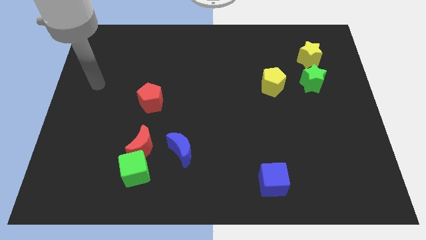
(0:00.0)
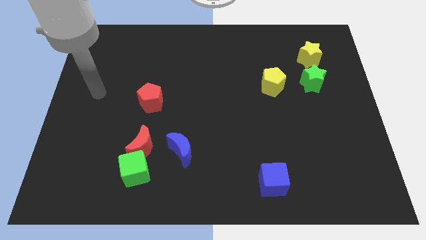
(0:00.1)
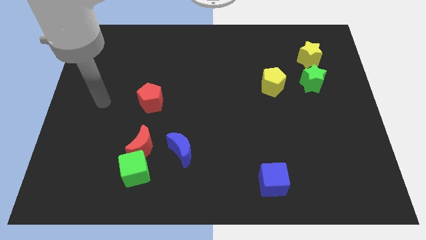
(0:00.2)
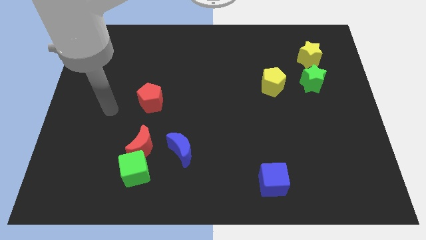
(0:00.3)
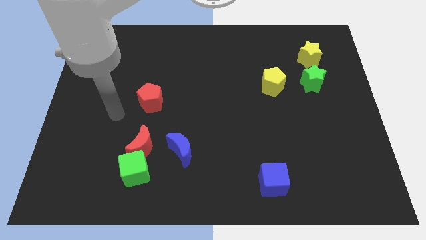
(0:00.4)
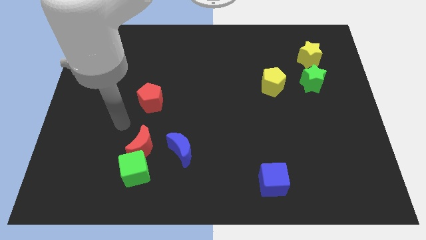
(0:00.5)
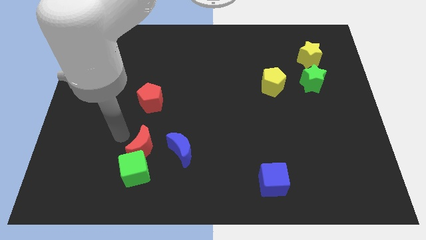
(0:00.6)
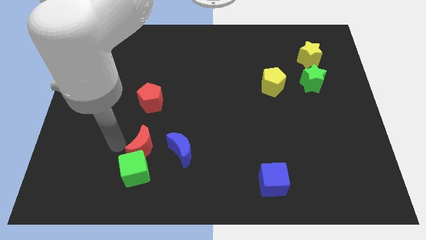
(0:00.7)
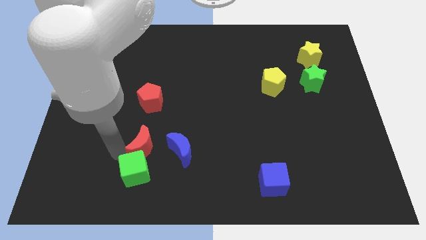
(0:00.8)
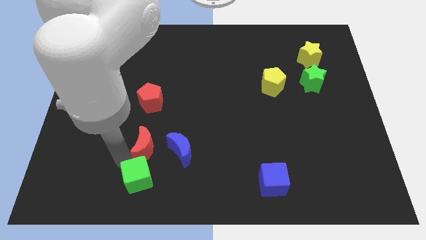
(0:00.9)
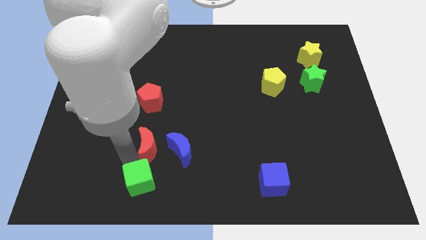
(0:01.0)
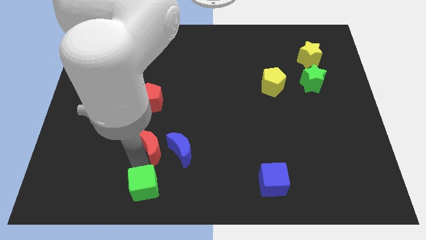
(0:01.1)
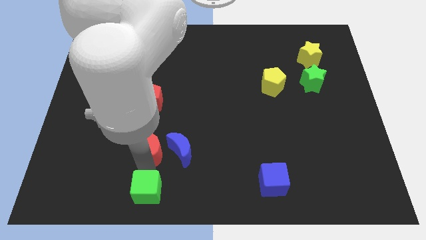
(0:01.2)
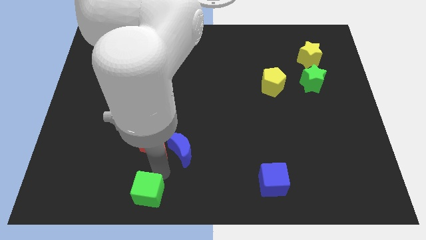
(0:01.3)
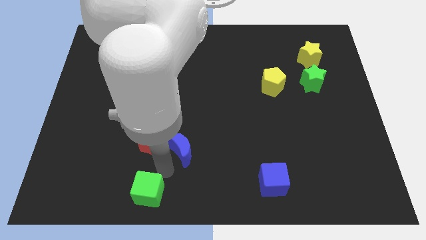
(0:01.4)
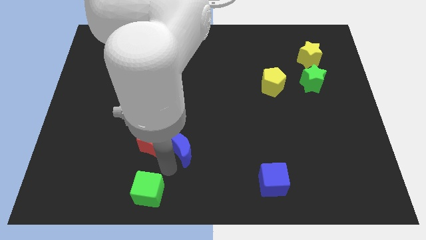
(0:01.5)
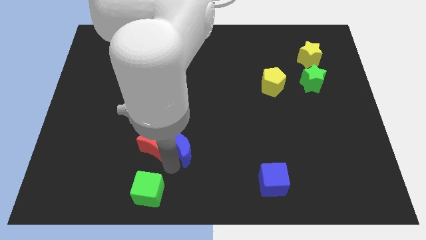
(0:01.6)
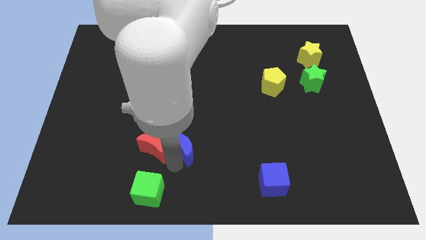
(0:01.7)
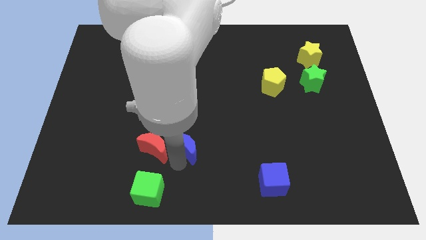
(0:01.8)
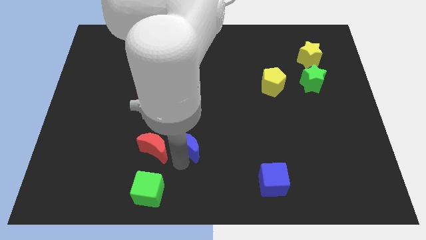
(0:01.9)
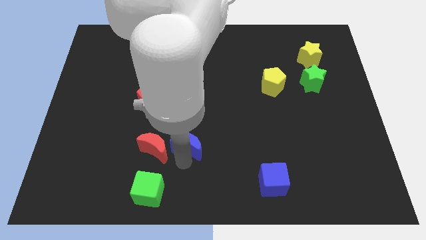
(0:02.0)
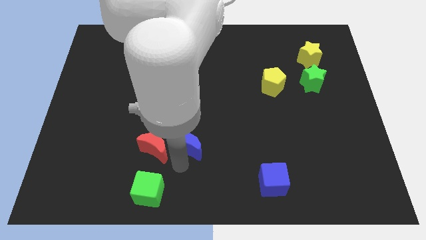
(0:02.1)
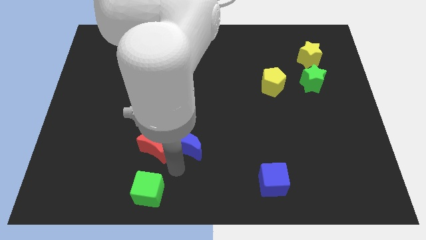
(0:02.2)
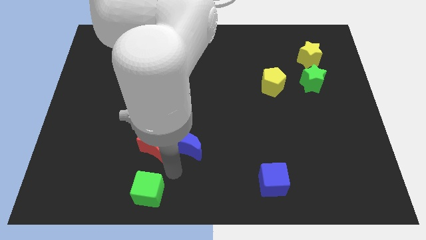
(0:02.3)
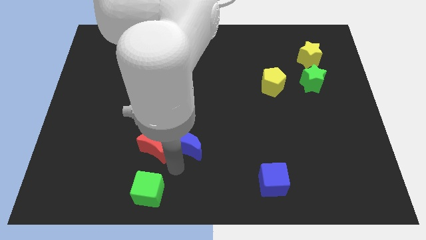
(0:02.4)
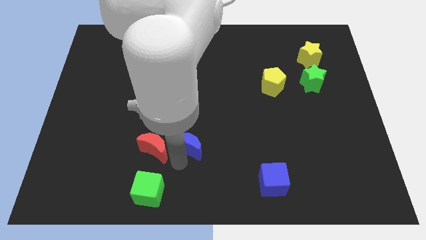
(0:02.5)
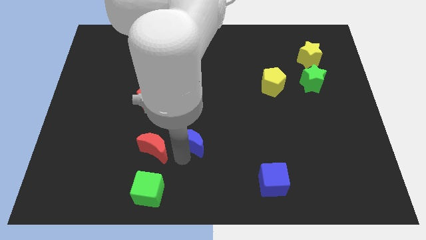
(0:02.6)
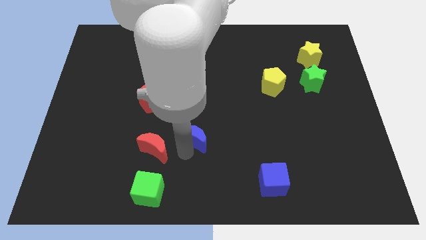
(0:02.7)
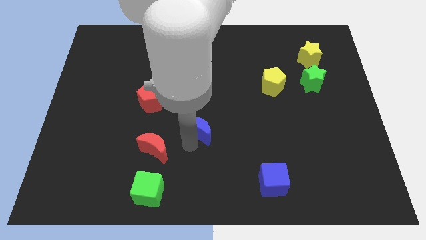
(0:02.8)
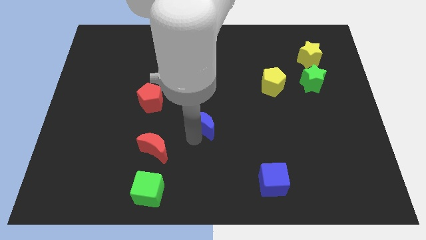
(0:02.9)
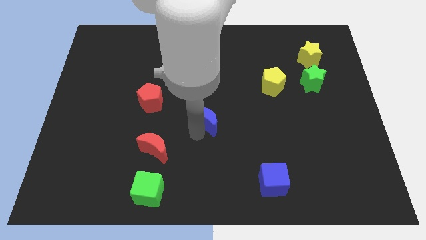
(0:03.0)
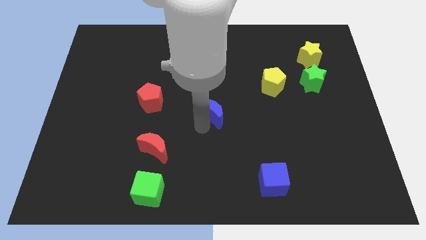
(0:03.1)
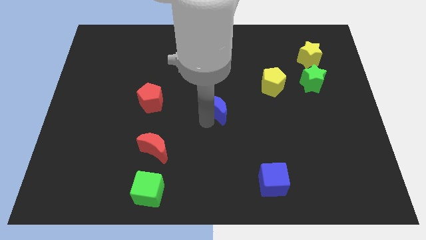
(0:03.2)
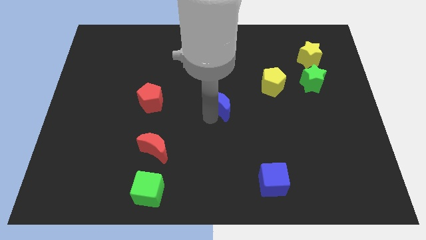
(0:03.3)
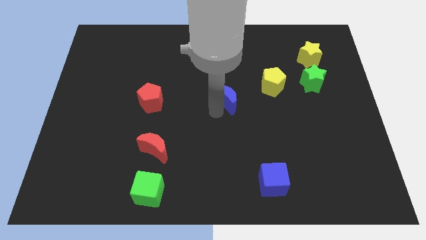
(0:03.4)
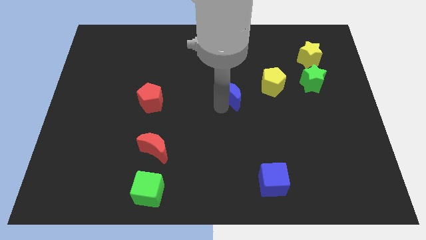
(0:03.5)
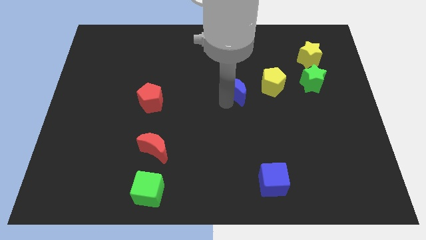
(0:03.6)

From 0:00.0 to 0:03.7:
push the blue moon upwards and to the right diagonally

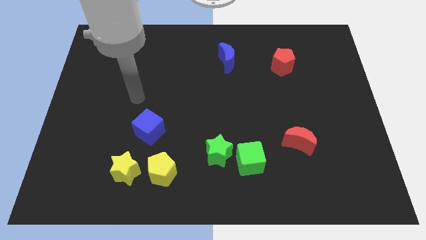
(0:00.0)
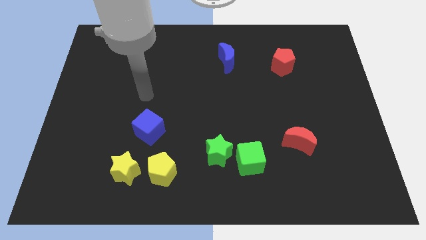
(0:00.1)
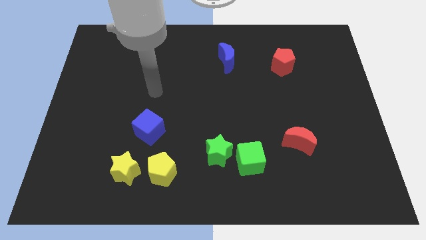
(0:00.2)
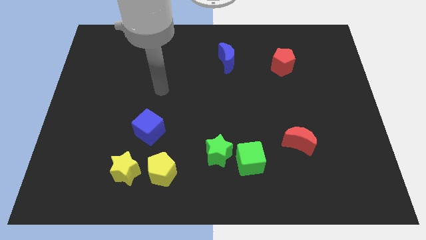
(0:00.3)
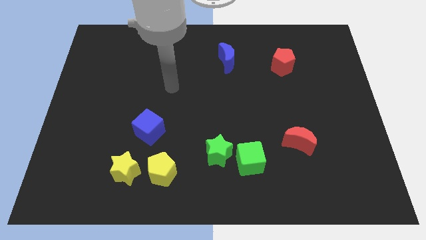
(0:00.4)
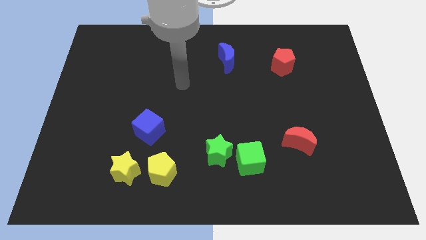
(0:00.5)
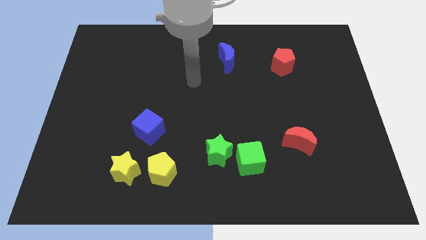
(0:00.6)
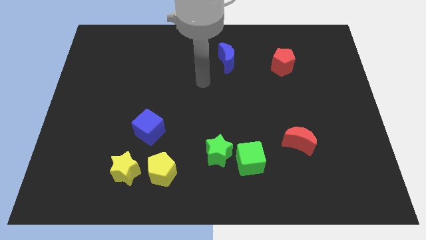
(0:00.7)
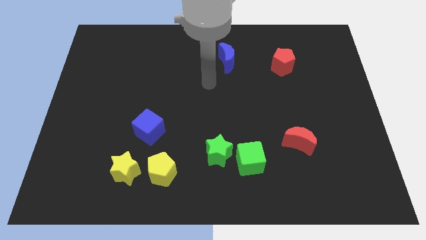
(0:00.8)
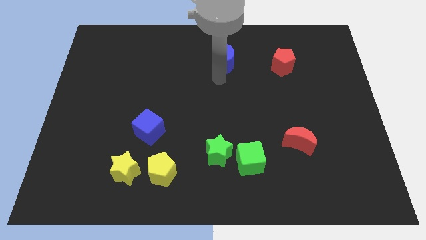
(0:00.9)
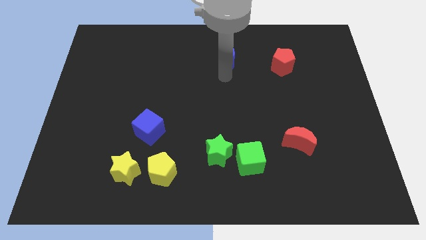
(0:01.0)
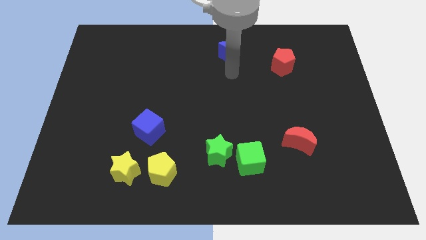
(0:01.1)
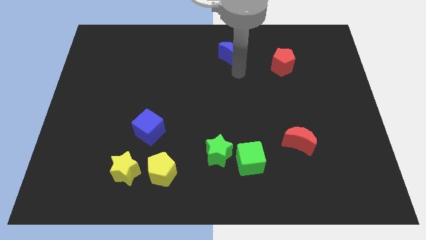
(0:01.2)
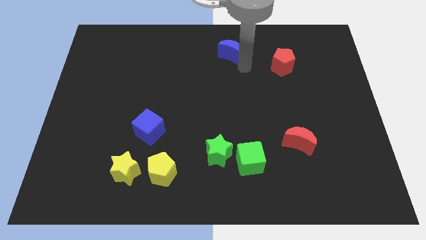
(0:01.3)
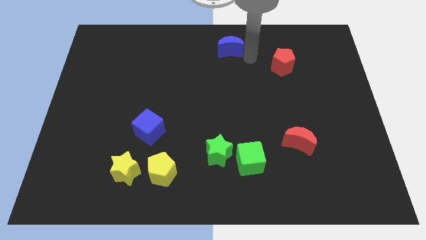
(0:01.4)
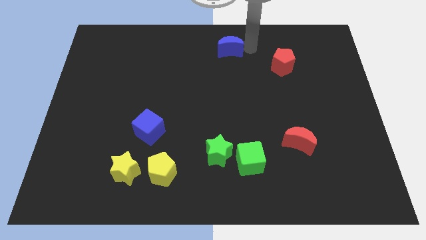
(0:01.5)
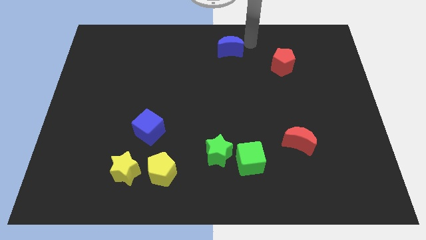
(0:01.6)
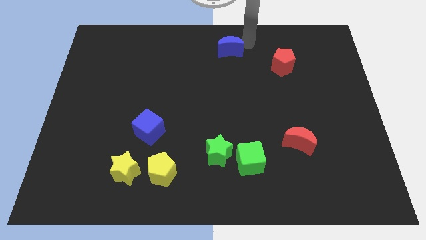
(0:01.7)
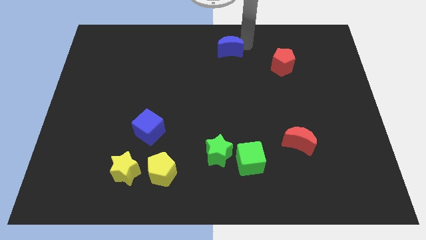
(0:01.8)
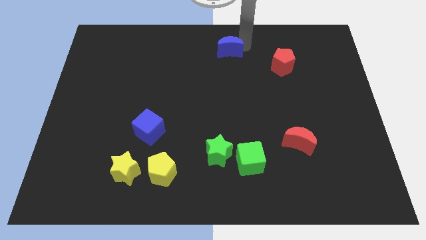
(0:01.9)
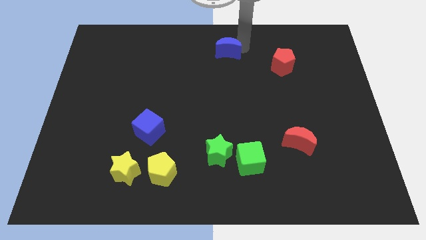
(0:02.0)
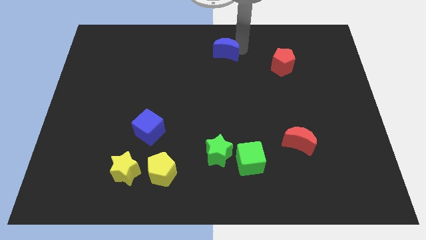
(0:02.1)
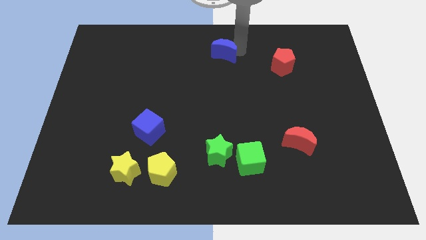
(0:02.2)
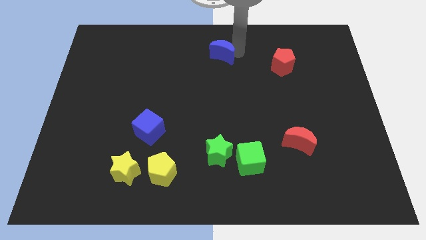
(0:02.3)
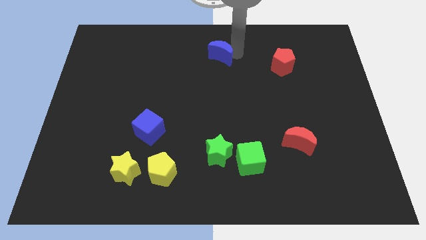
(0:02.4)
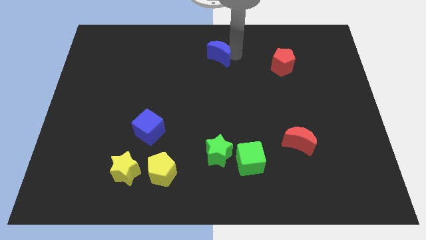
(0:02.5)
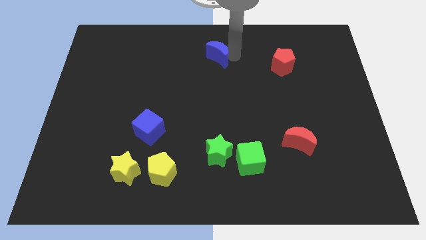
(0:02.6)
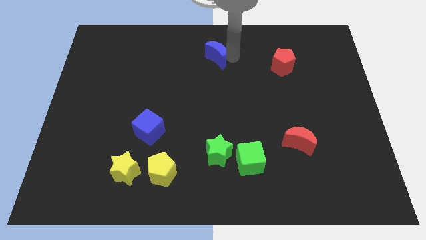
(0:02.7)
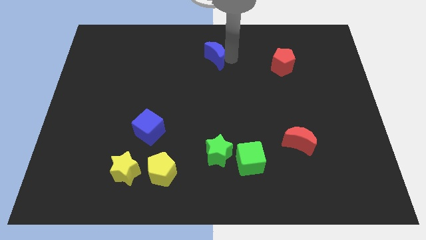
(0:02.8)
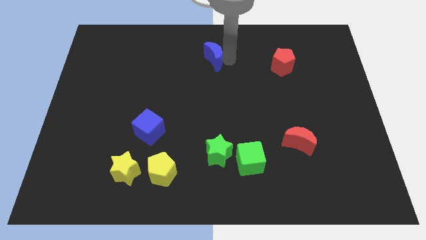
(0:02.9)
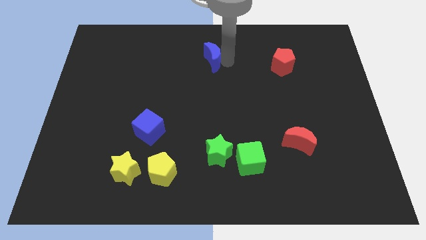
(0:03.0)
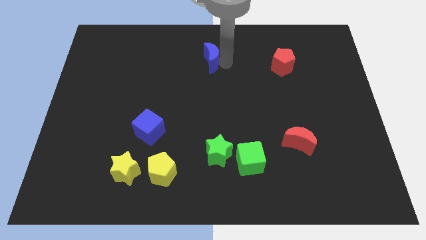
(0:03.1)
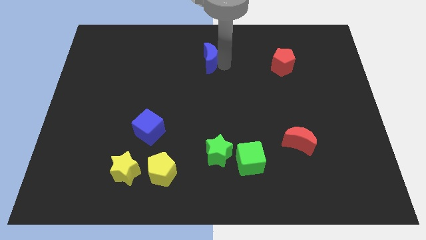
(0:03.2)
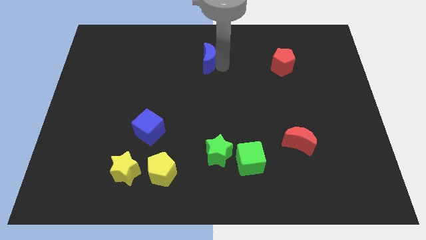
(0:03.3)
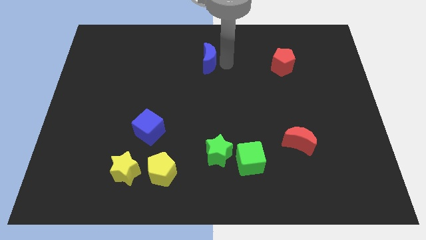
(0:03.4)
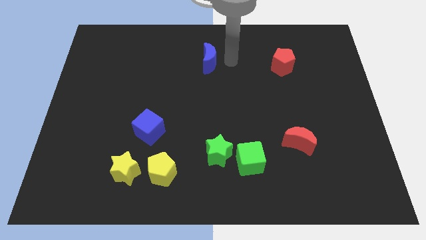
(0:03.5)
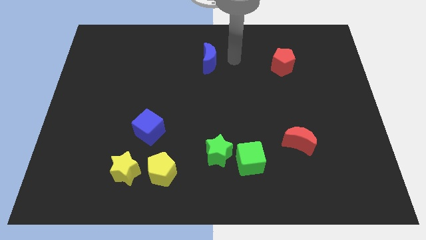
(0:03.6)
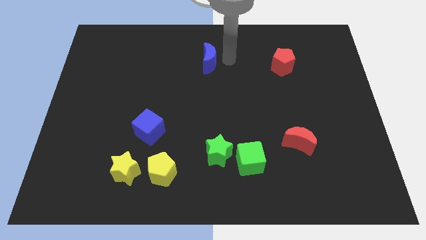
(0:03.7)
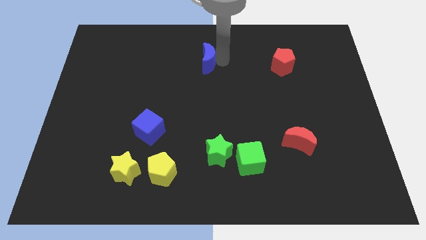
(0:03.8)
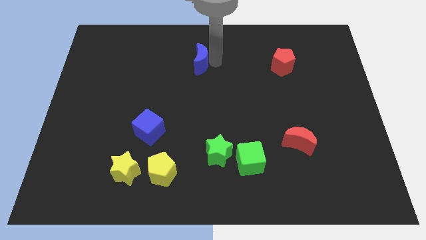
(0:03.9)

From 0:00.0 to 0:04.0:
slightly slide the blue moon to the left

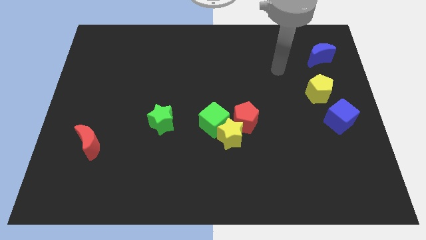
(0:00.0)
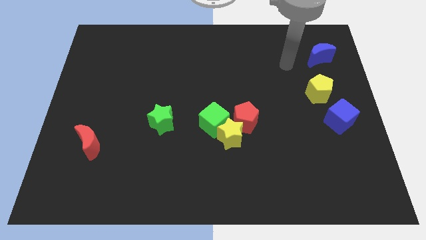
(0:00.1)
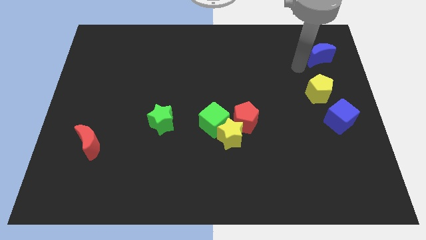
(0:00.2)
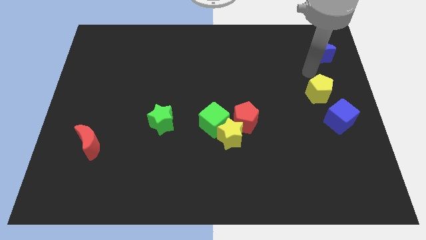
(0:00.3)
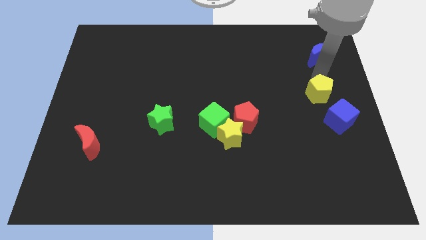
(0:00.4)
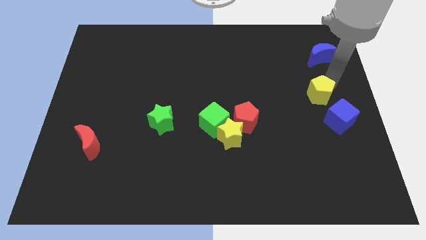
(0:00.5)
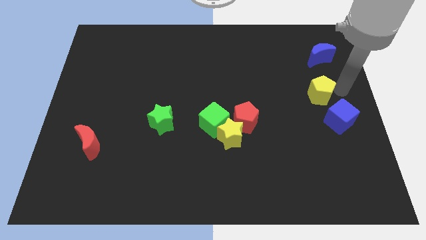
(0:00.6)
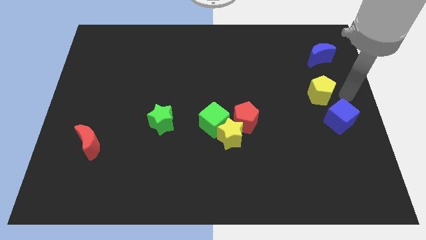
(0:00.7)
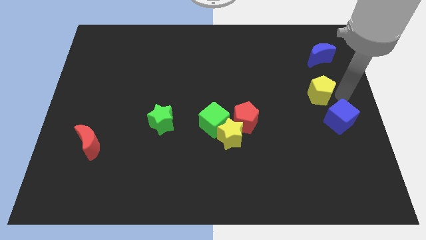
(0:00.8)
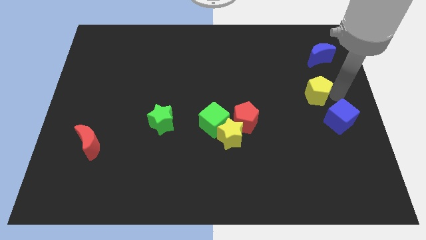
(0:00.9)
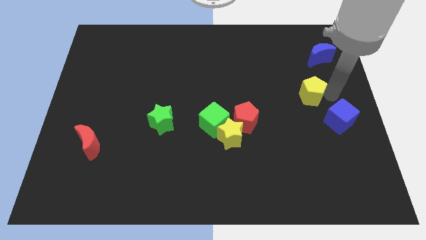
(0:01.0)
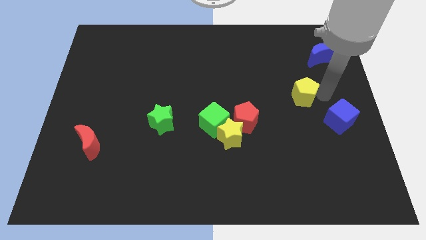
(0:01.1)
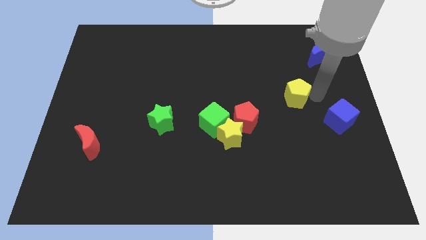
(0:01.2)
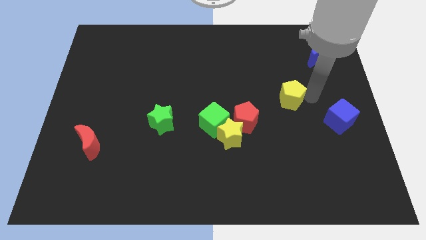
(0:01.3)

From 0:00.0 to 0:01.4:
push the yellow pentagon to the left slightly
